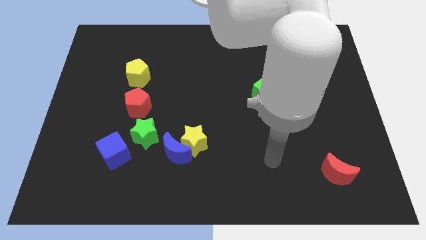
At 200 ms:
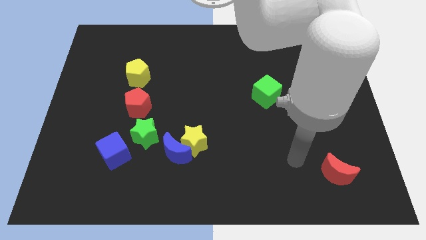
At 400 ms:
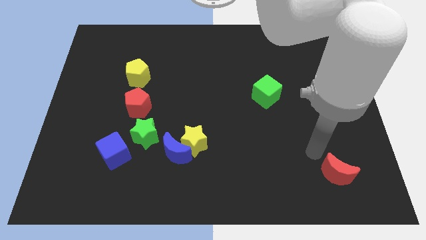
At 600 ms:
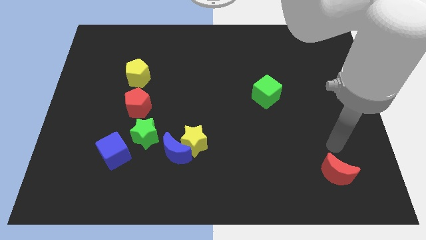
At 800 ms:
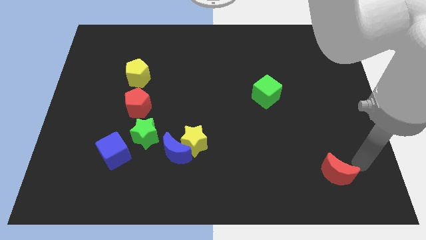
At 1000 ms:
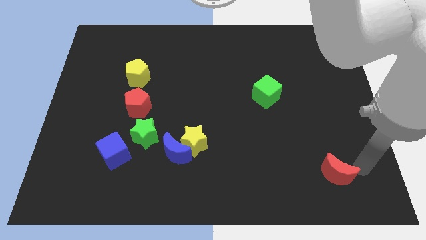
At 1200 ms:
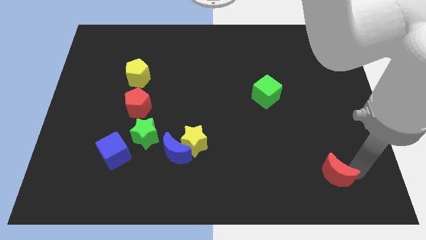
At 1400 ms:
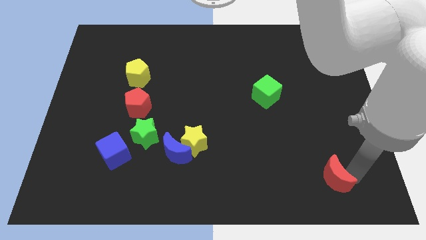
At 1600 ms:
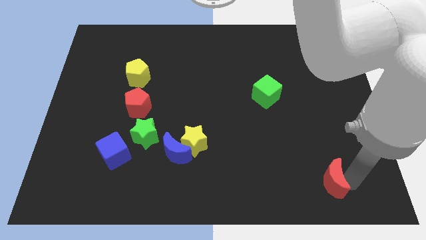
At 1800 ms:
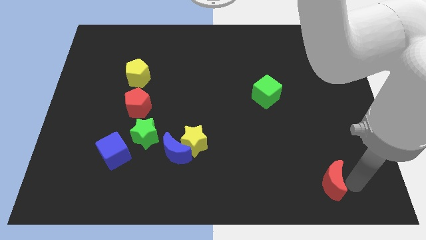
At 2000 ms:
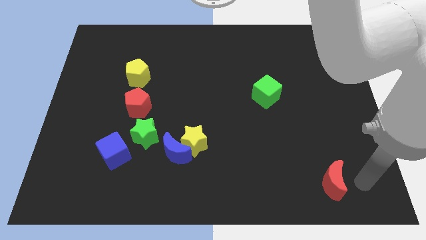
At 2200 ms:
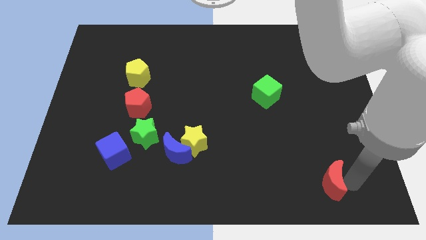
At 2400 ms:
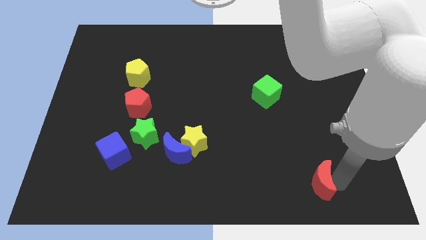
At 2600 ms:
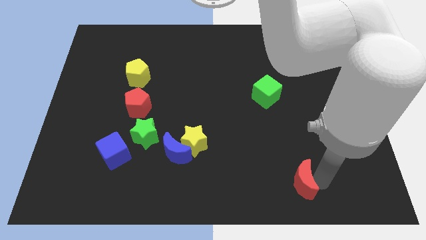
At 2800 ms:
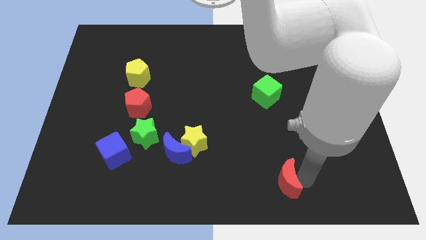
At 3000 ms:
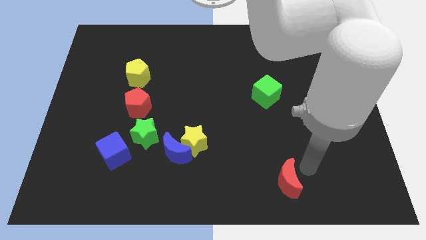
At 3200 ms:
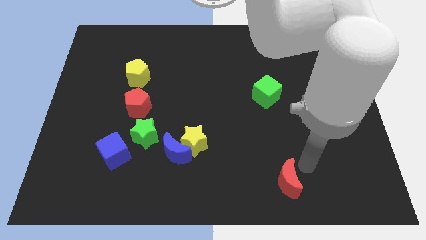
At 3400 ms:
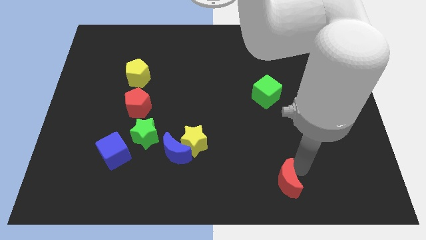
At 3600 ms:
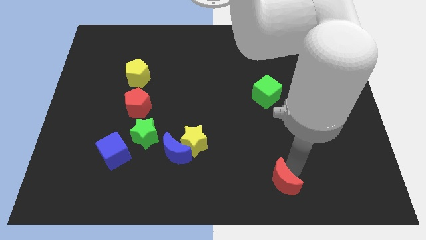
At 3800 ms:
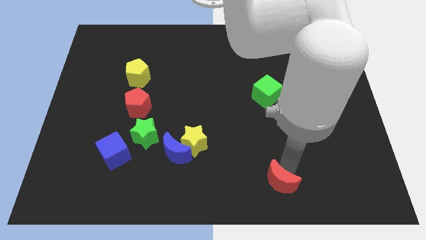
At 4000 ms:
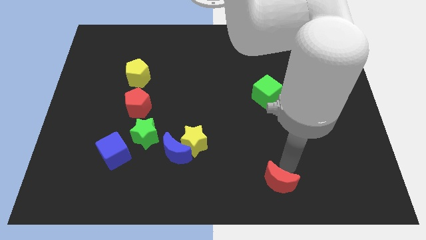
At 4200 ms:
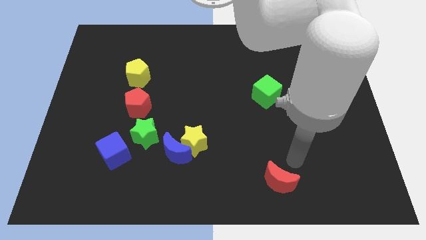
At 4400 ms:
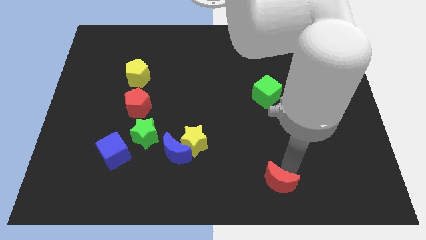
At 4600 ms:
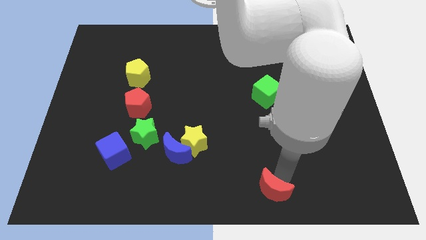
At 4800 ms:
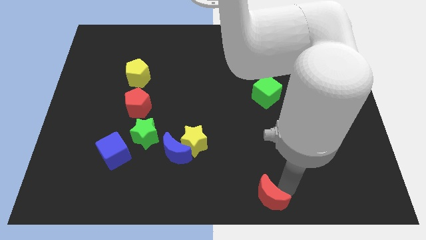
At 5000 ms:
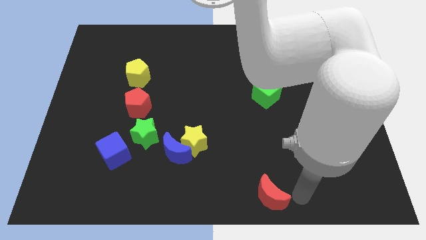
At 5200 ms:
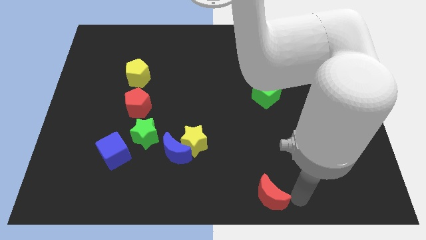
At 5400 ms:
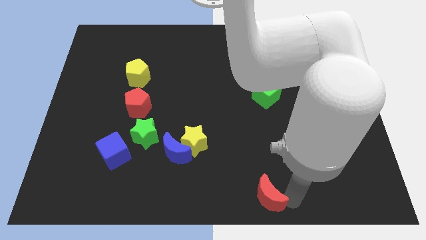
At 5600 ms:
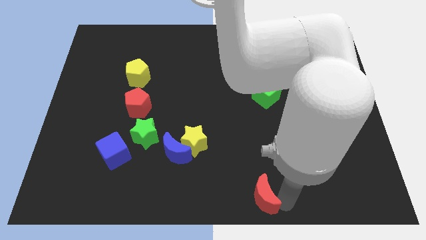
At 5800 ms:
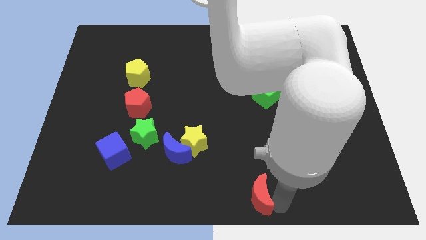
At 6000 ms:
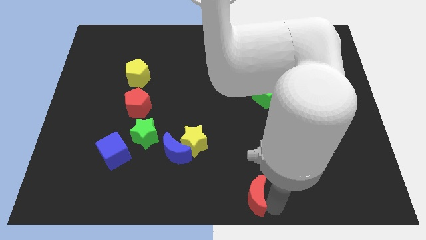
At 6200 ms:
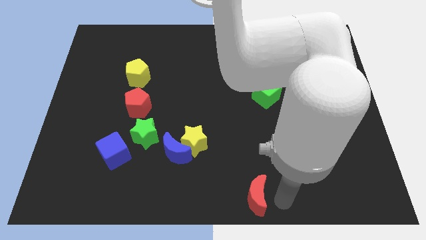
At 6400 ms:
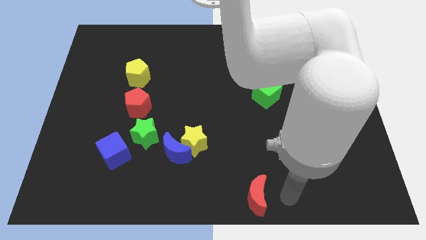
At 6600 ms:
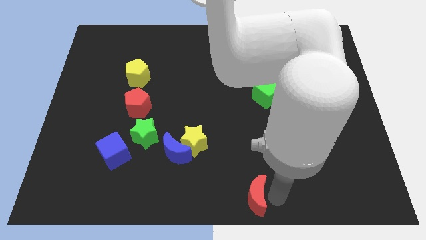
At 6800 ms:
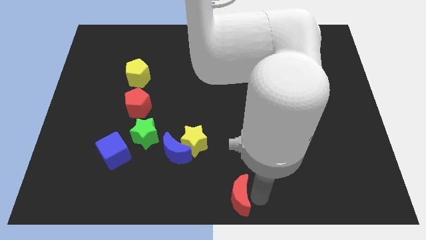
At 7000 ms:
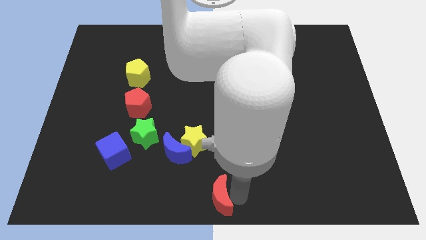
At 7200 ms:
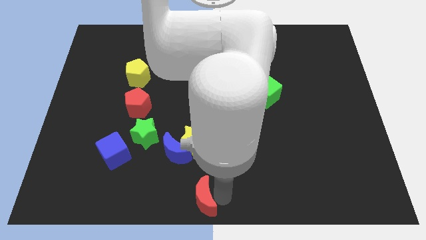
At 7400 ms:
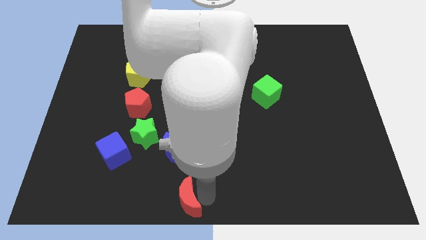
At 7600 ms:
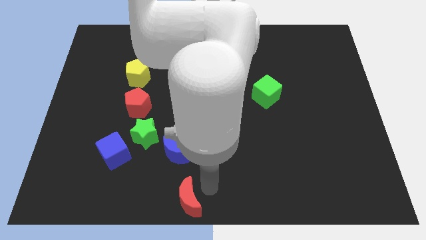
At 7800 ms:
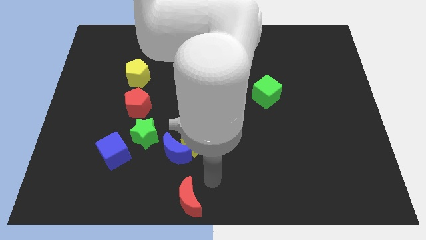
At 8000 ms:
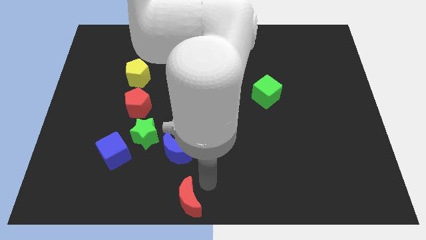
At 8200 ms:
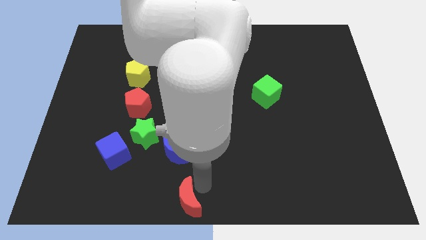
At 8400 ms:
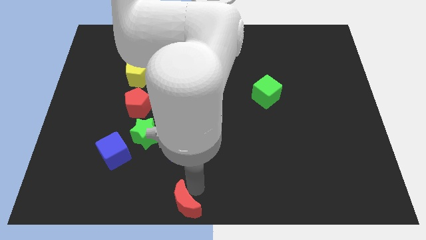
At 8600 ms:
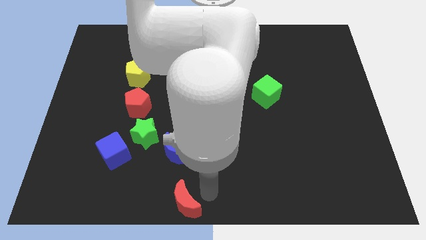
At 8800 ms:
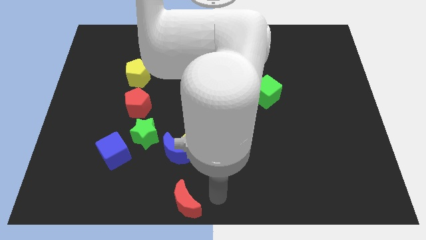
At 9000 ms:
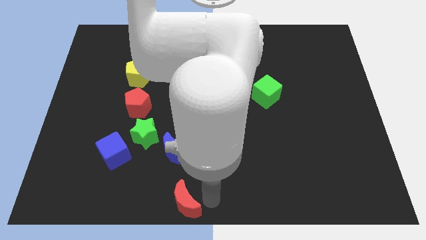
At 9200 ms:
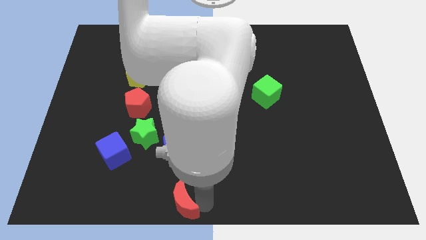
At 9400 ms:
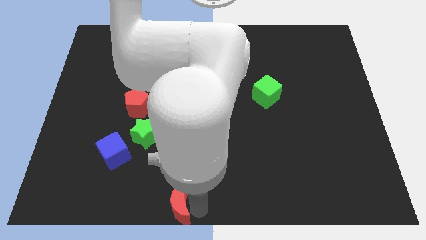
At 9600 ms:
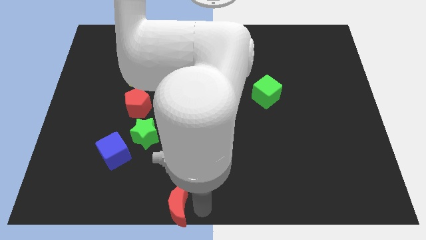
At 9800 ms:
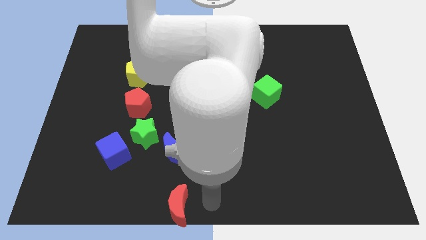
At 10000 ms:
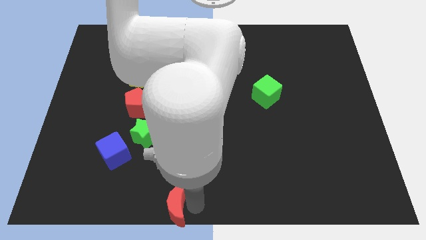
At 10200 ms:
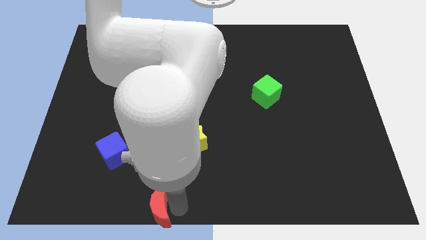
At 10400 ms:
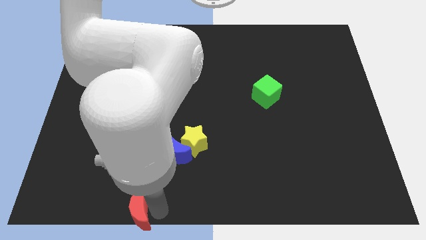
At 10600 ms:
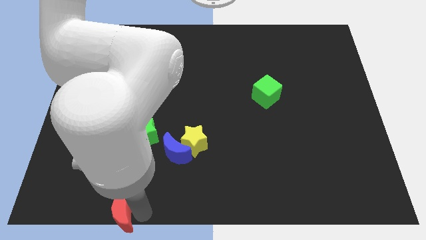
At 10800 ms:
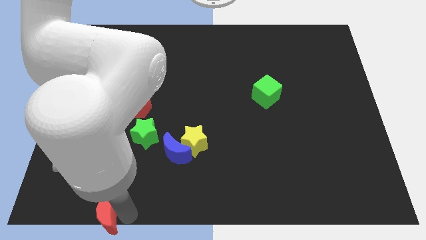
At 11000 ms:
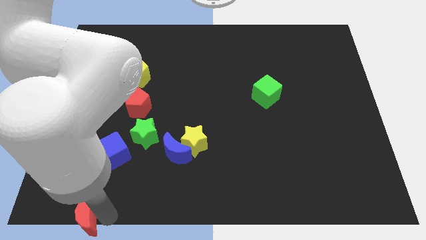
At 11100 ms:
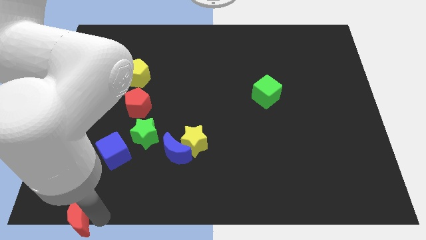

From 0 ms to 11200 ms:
move the red moon to the lower left corner

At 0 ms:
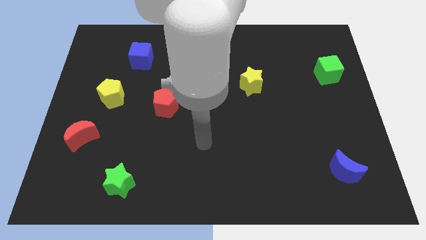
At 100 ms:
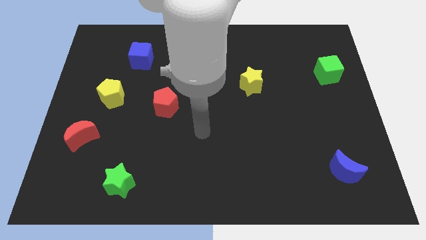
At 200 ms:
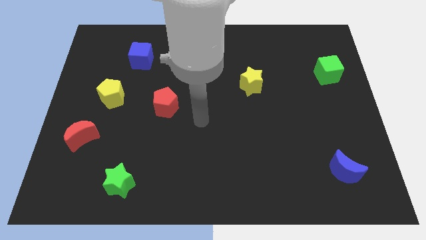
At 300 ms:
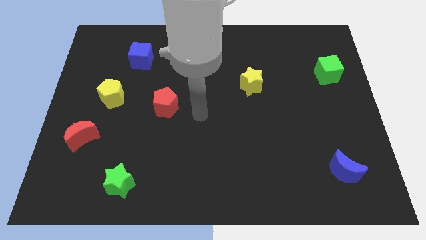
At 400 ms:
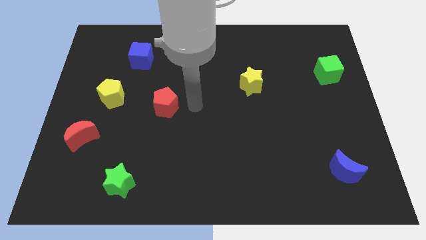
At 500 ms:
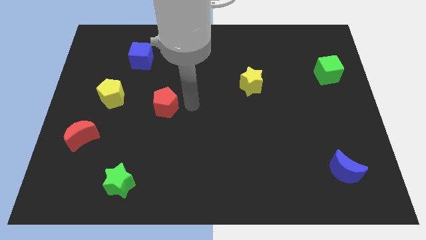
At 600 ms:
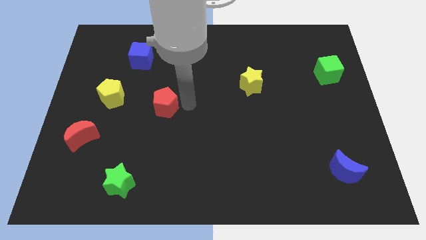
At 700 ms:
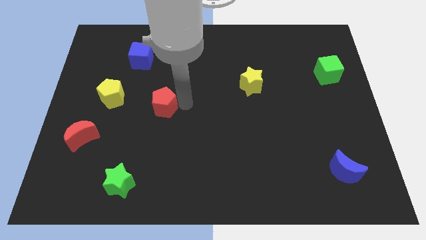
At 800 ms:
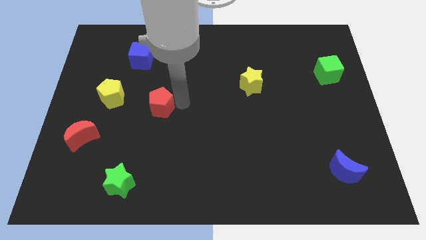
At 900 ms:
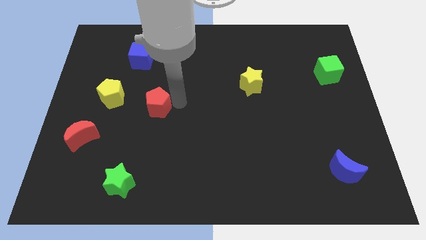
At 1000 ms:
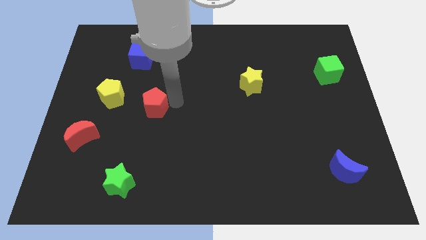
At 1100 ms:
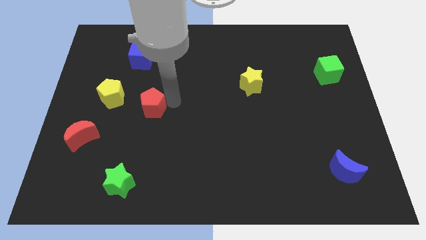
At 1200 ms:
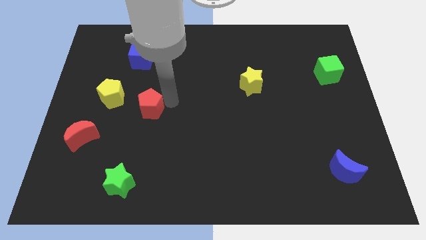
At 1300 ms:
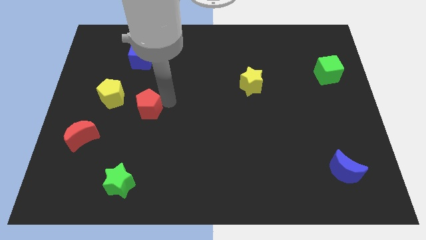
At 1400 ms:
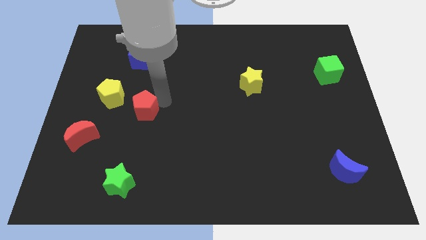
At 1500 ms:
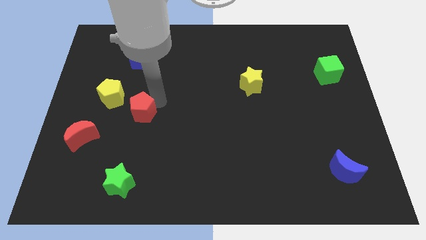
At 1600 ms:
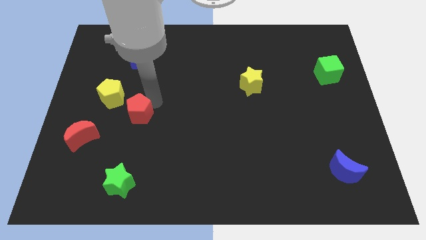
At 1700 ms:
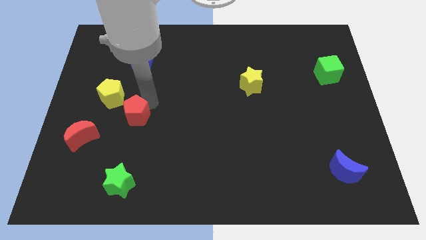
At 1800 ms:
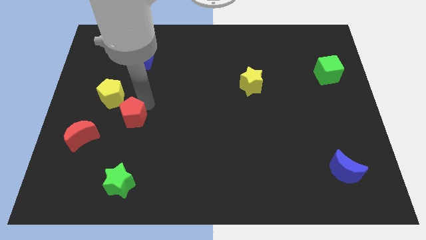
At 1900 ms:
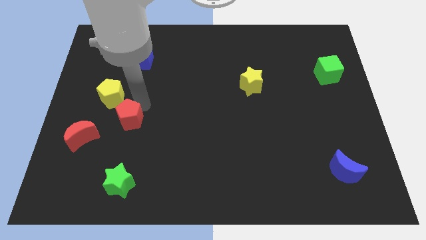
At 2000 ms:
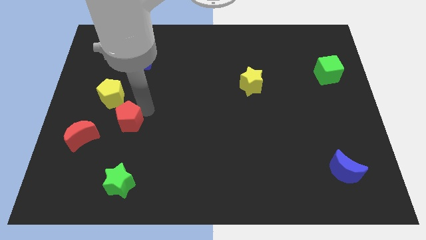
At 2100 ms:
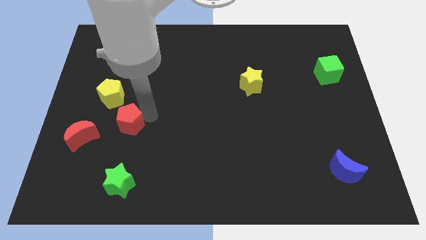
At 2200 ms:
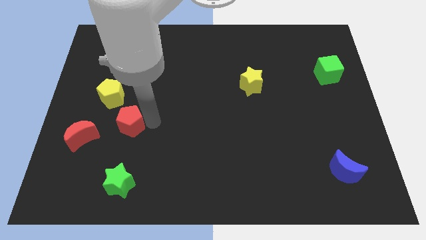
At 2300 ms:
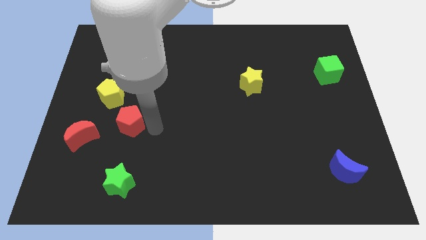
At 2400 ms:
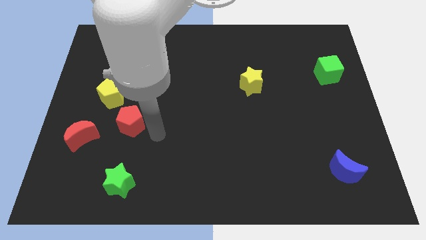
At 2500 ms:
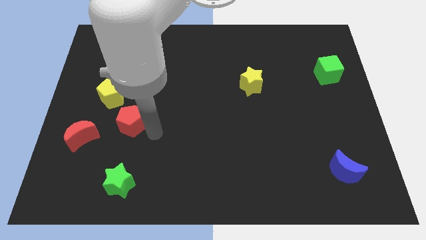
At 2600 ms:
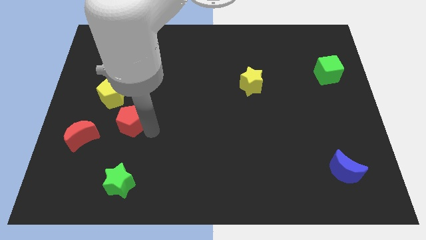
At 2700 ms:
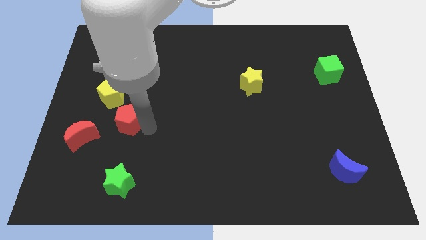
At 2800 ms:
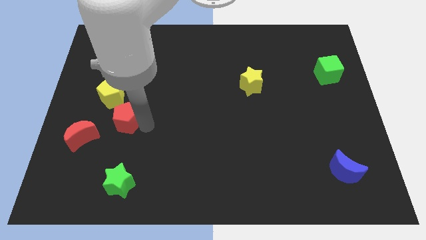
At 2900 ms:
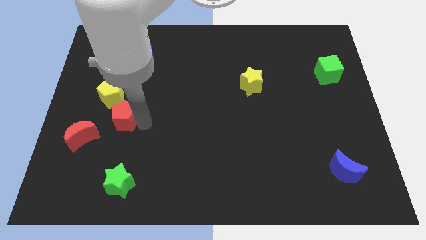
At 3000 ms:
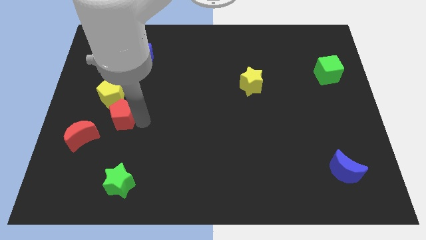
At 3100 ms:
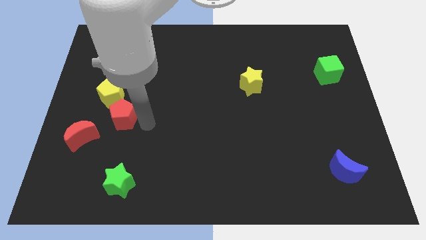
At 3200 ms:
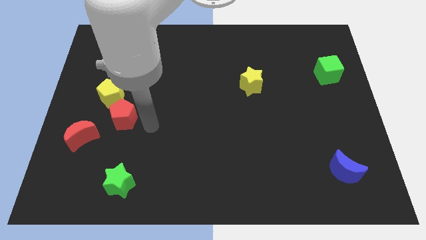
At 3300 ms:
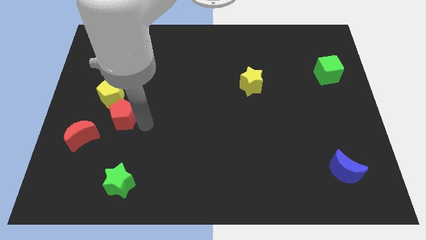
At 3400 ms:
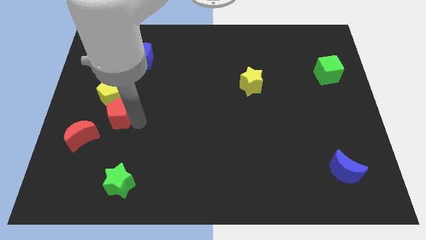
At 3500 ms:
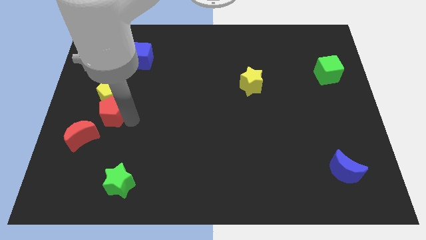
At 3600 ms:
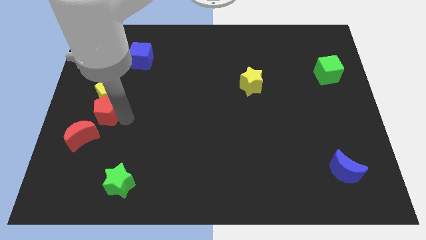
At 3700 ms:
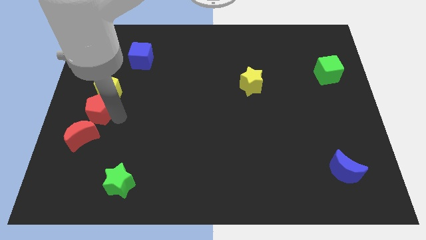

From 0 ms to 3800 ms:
push the red pentagon to the left side of the board
